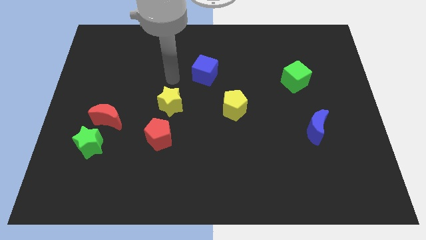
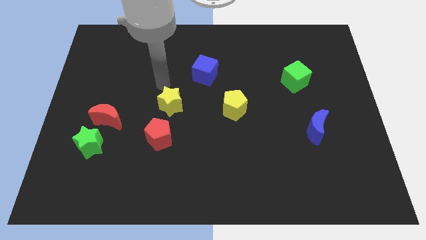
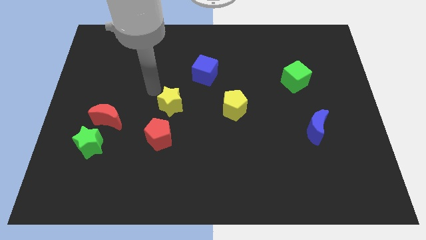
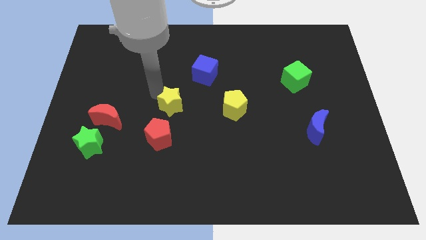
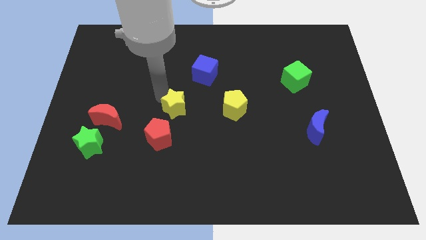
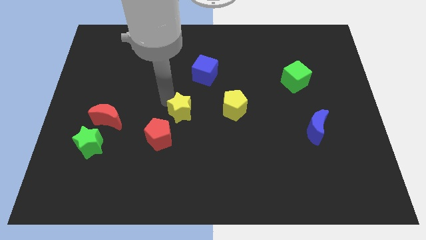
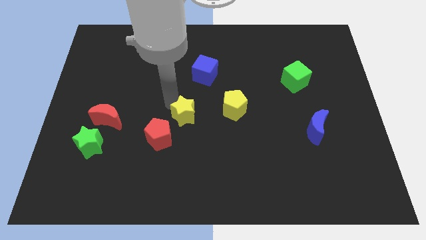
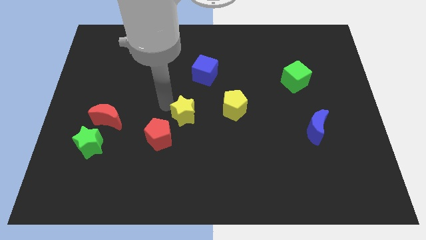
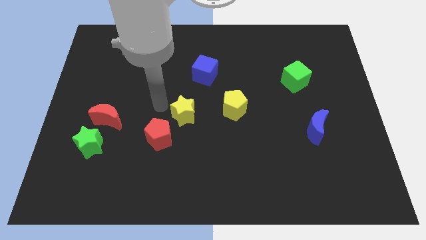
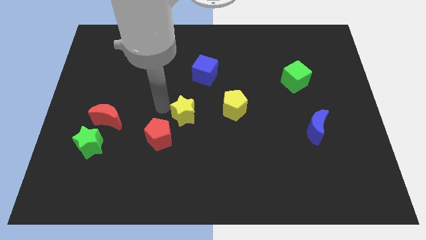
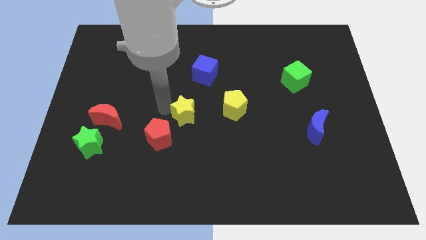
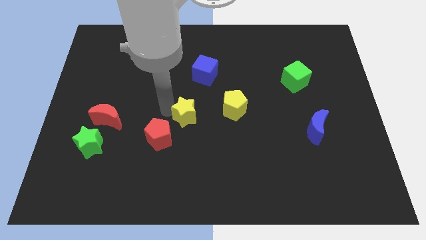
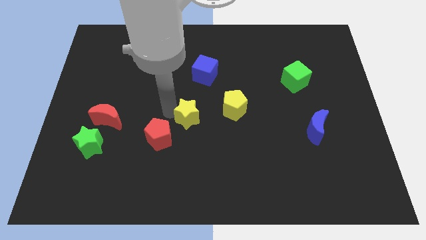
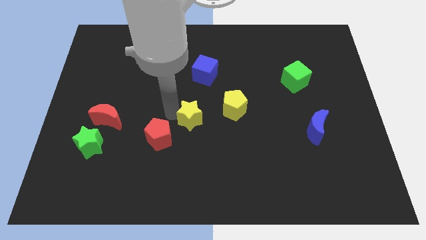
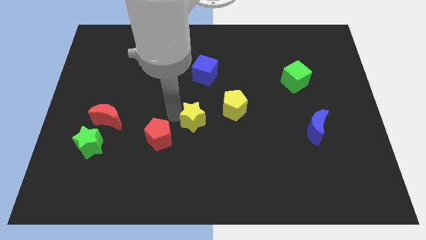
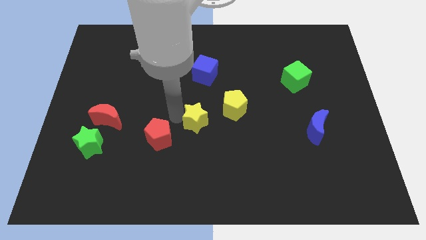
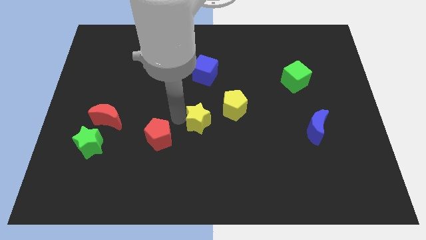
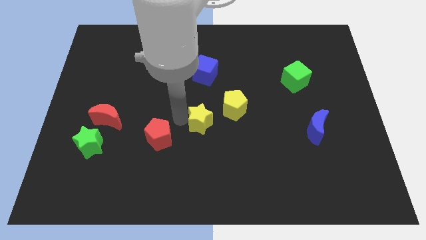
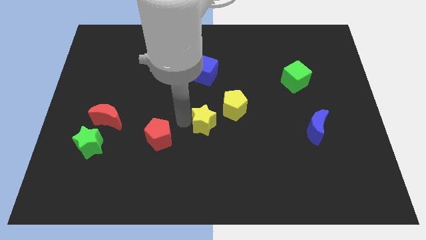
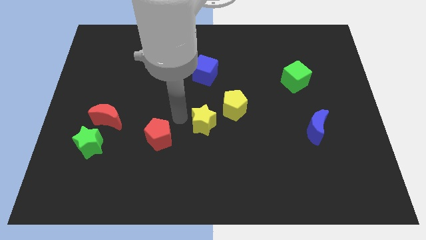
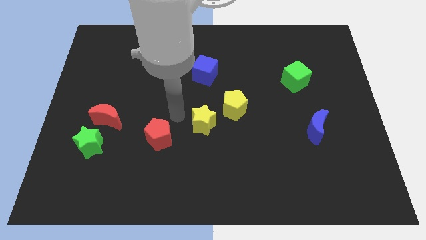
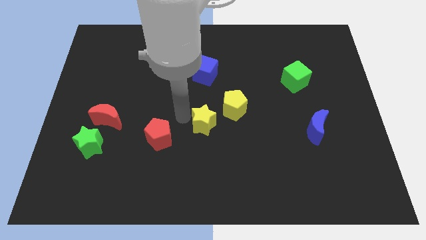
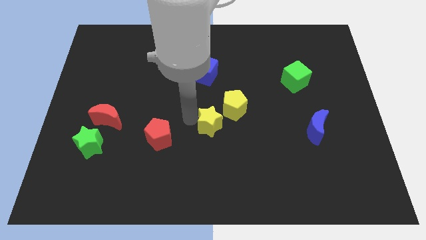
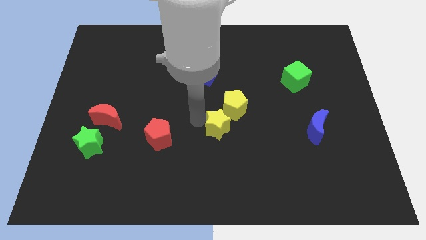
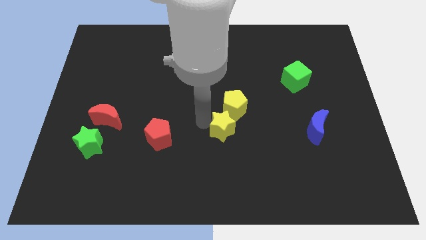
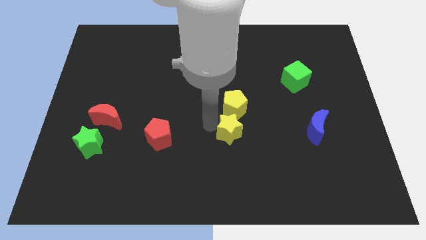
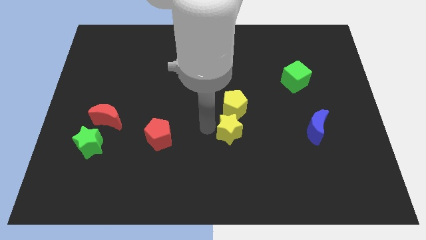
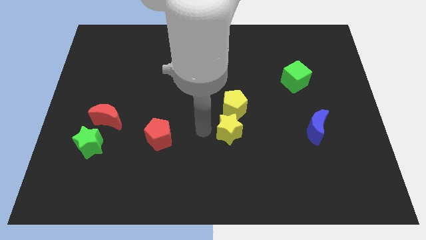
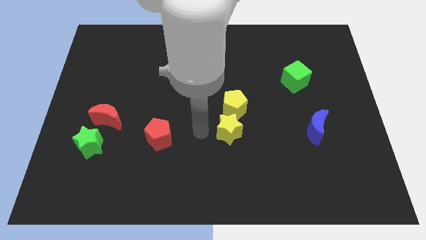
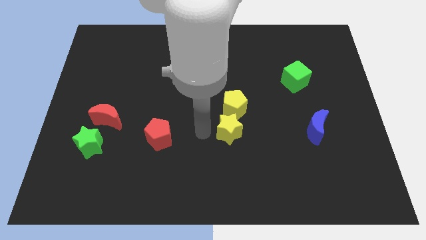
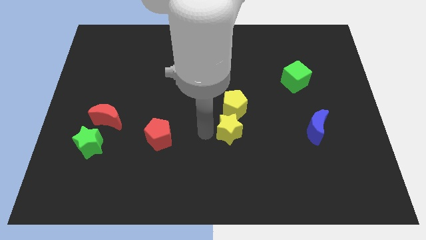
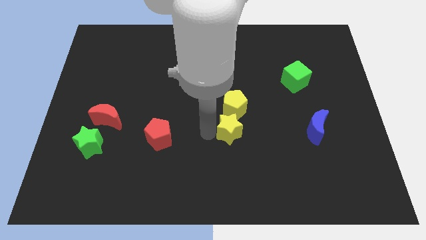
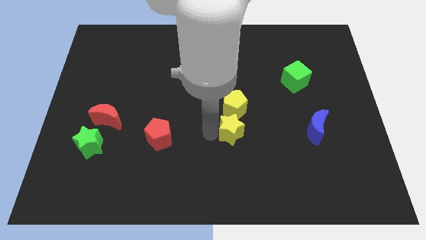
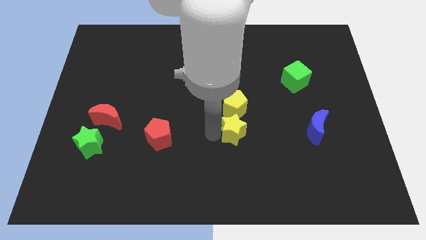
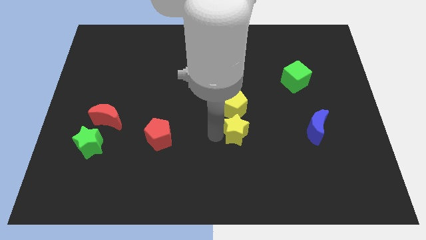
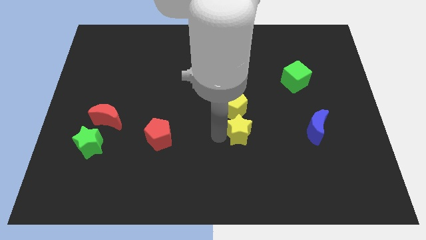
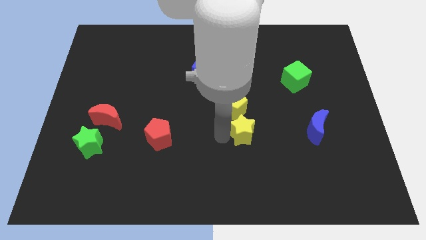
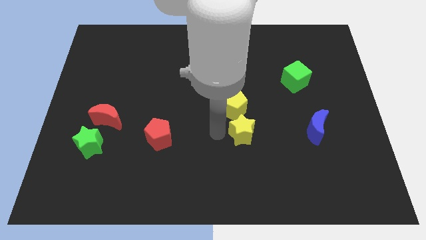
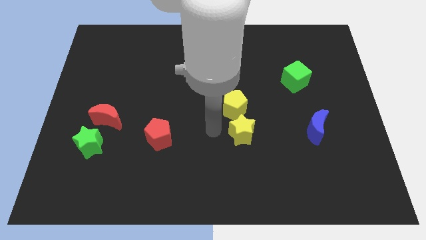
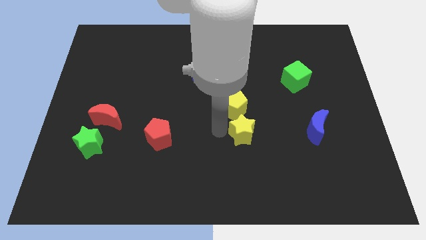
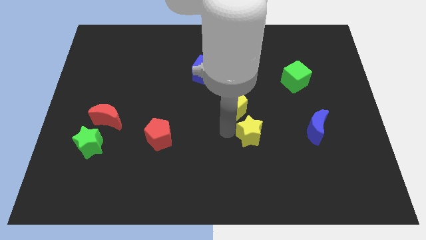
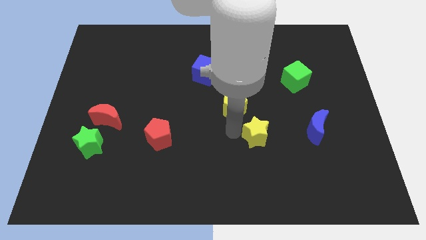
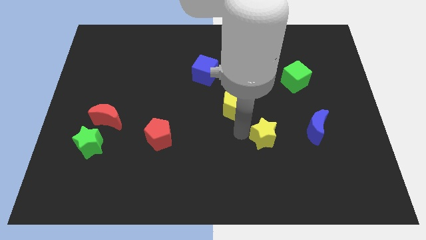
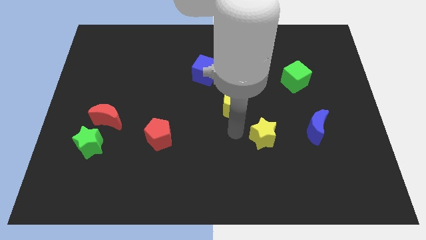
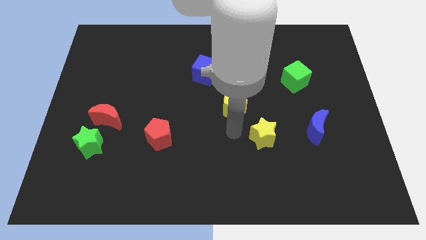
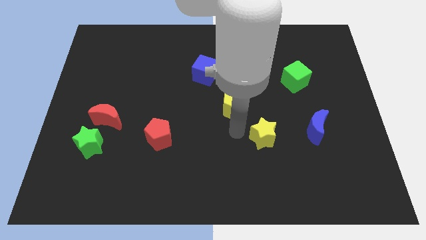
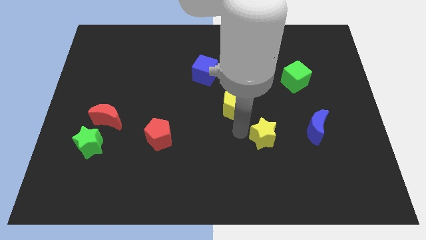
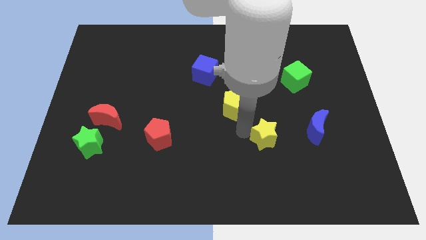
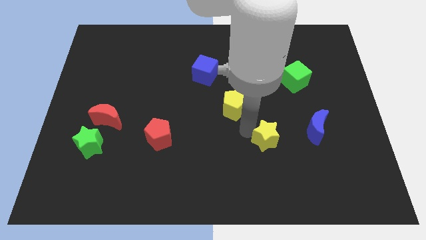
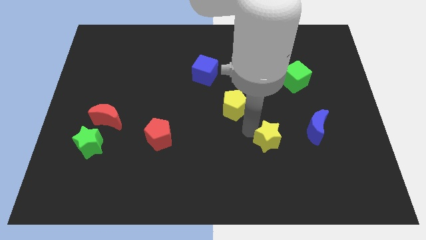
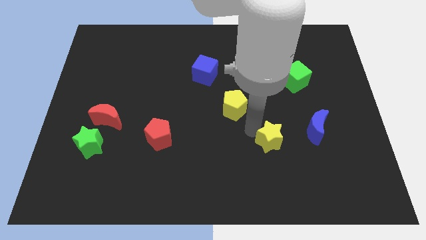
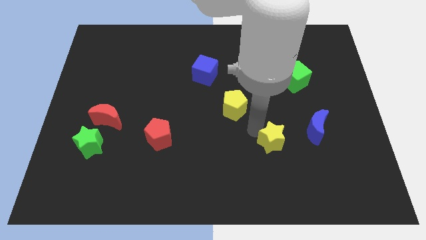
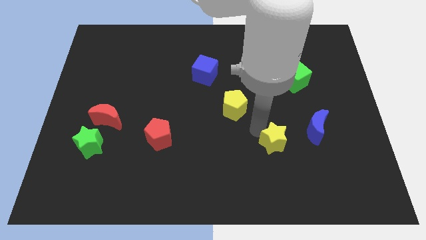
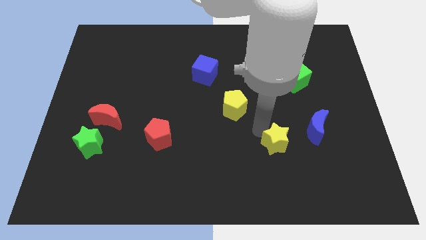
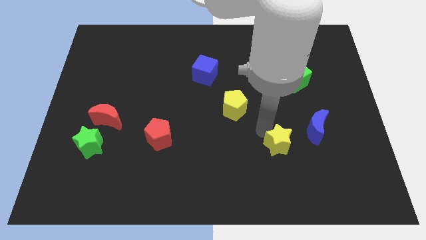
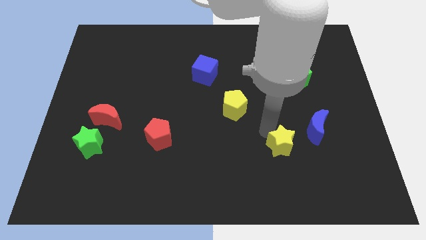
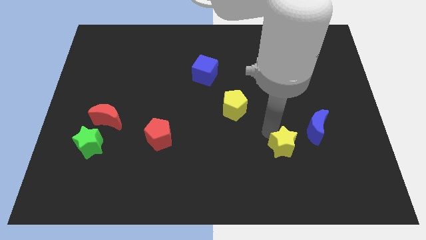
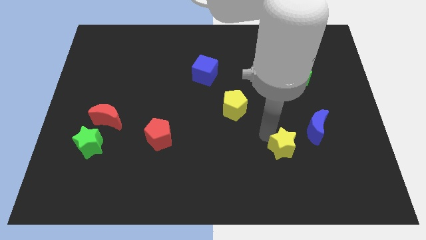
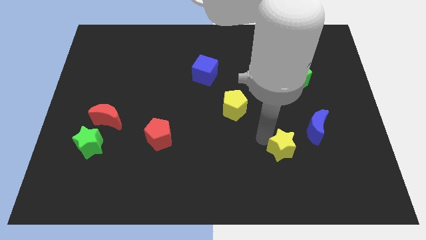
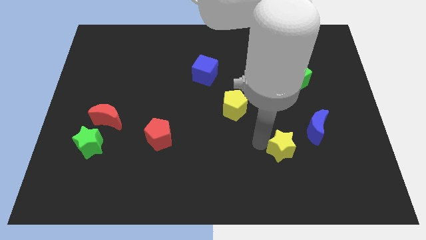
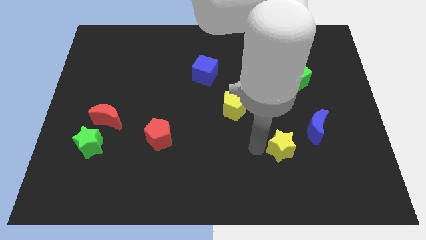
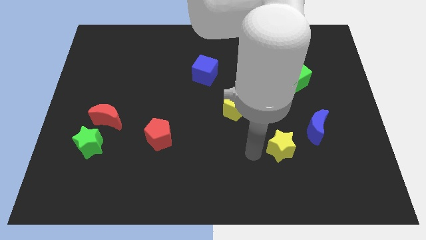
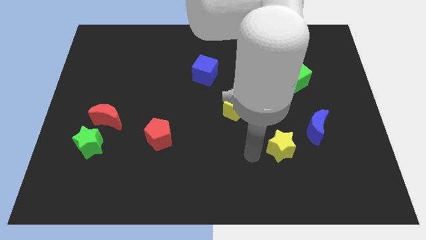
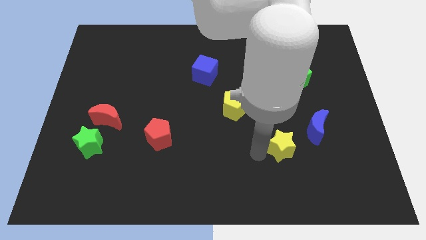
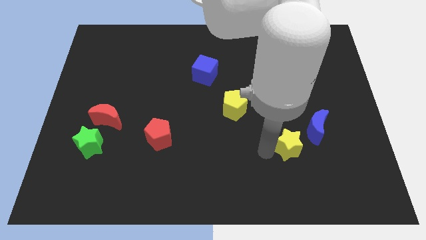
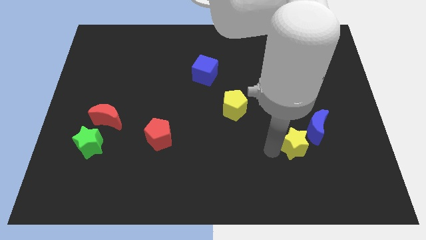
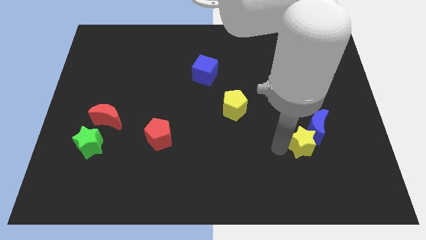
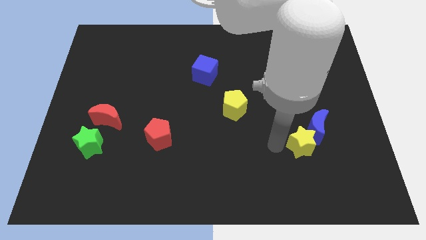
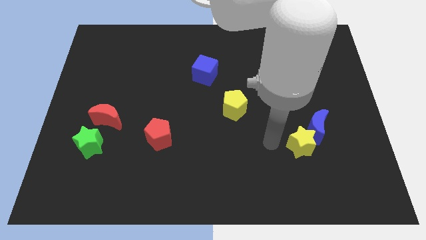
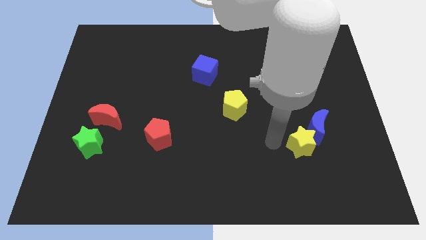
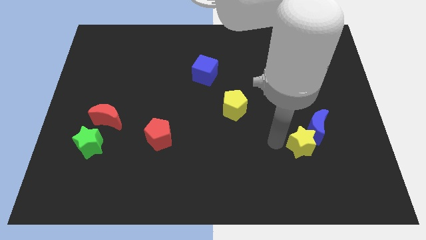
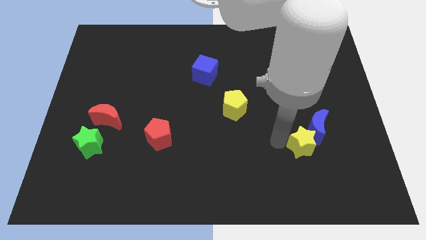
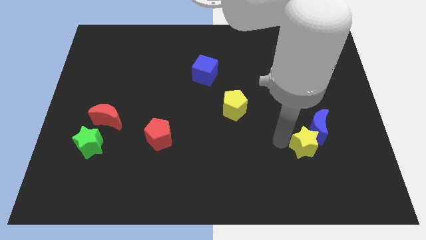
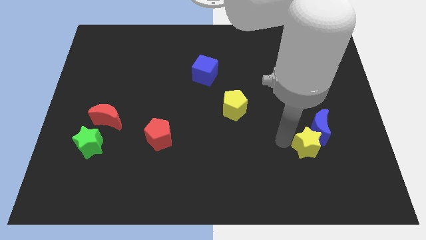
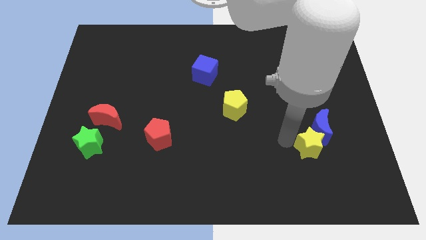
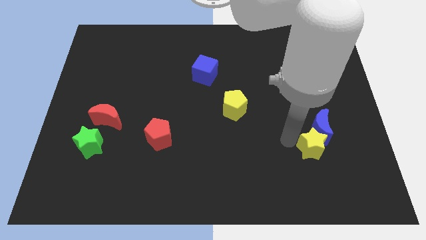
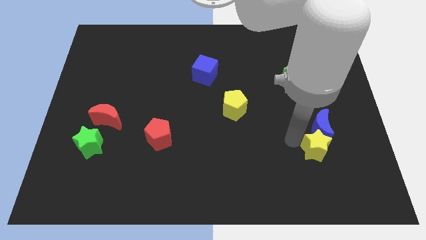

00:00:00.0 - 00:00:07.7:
put the yellow star to the bottom right of the blue moon
